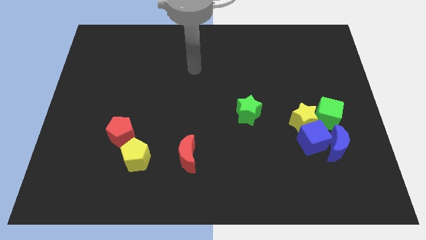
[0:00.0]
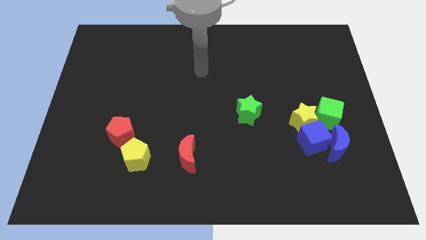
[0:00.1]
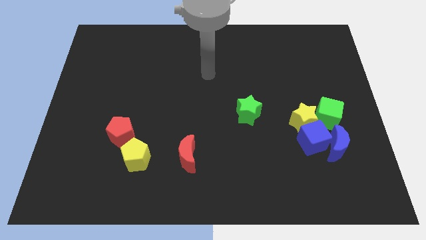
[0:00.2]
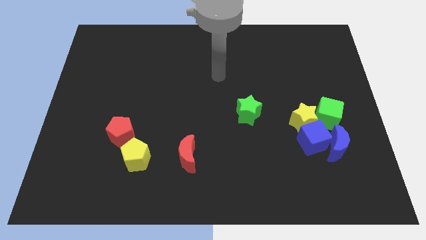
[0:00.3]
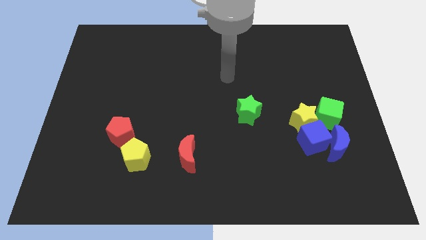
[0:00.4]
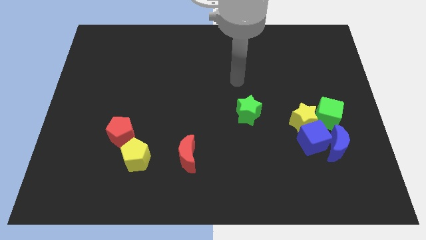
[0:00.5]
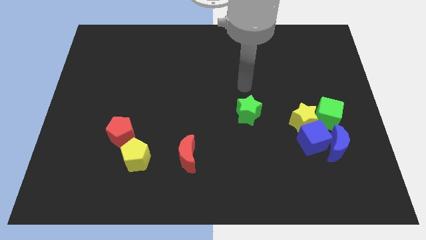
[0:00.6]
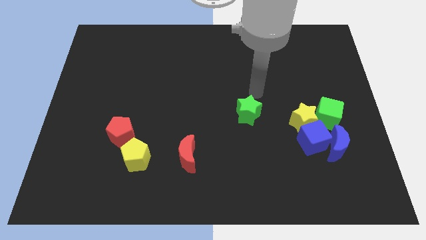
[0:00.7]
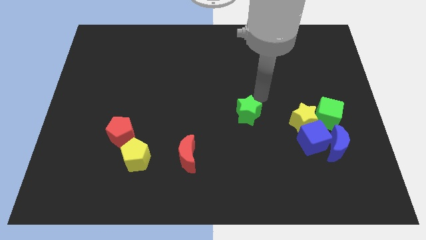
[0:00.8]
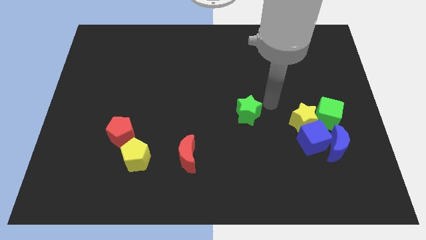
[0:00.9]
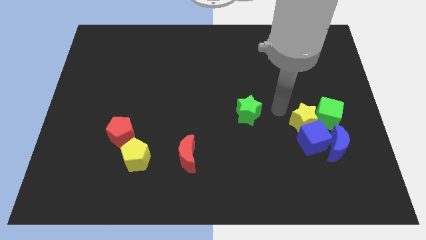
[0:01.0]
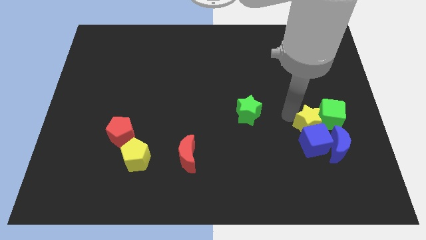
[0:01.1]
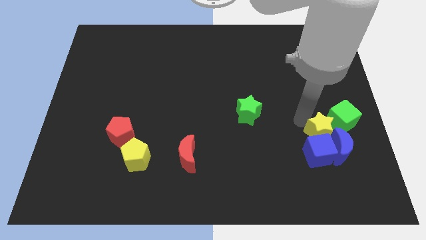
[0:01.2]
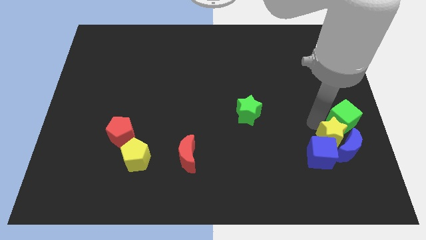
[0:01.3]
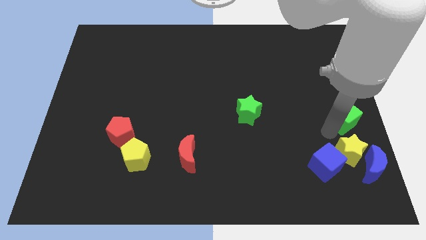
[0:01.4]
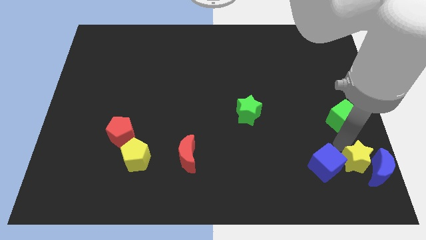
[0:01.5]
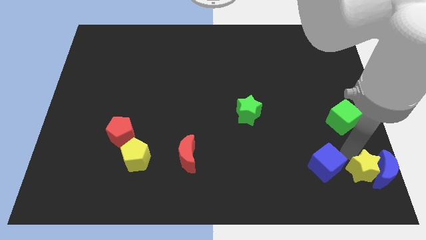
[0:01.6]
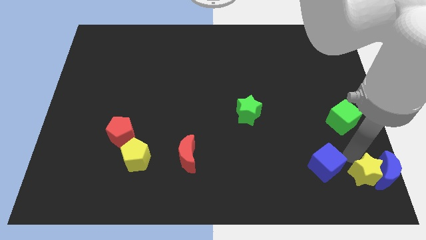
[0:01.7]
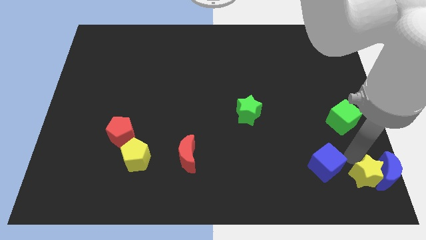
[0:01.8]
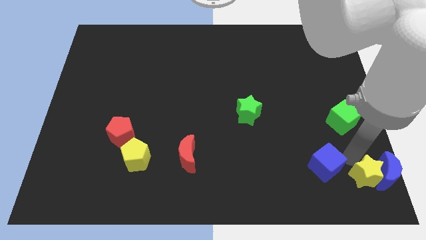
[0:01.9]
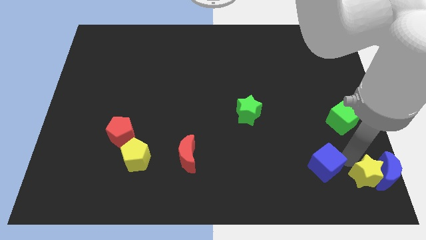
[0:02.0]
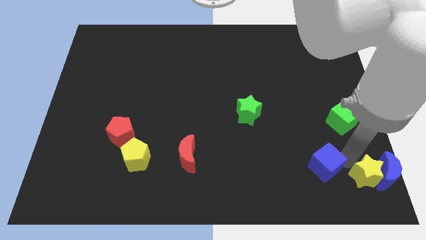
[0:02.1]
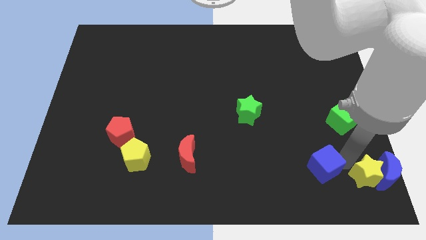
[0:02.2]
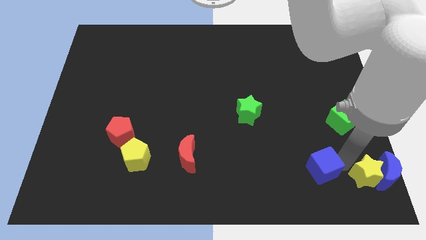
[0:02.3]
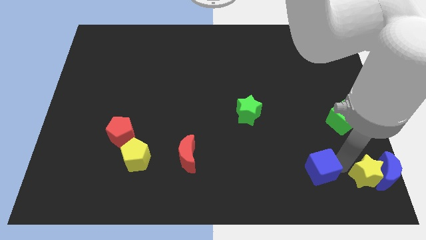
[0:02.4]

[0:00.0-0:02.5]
move the blue cube away from the clump

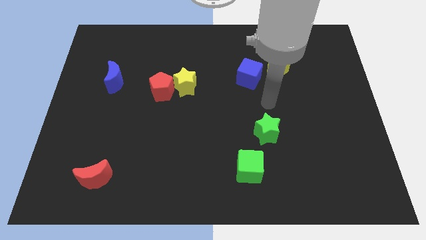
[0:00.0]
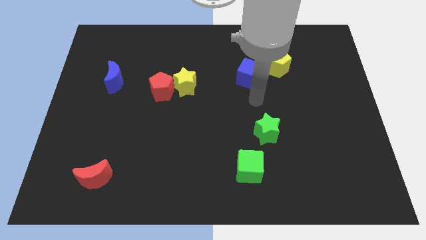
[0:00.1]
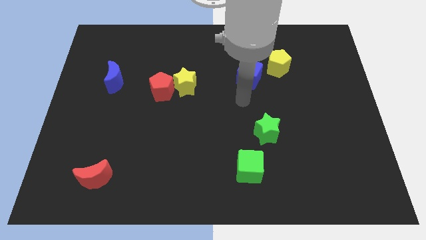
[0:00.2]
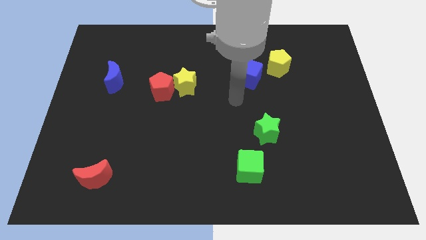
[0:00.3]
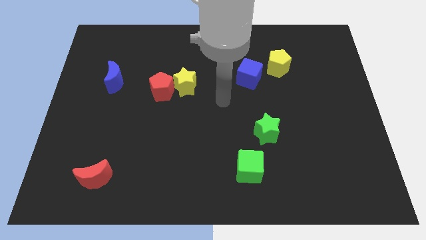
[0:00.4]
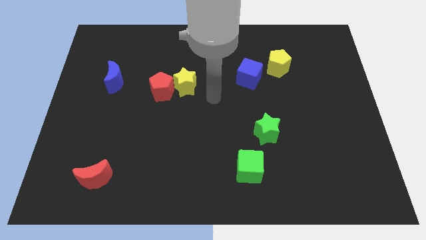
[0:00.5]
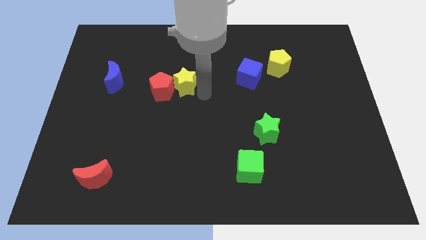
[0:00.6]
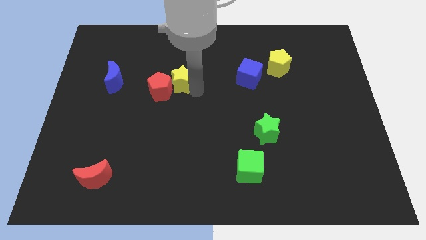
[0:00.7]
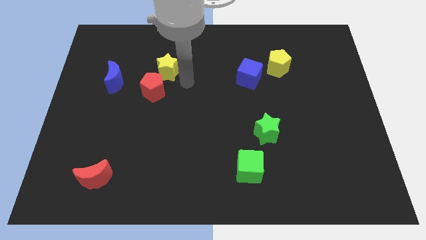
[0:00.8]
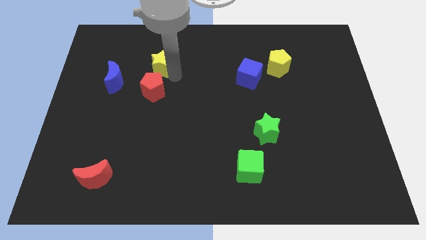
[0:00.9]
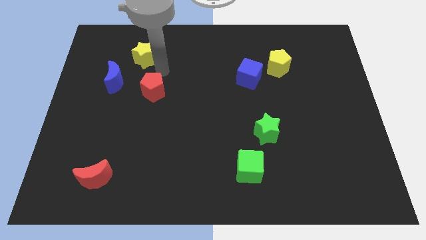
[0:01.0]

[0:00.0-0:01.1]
separate the red pentagon from the yellow star

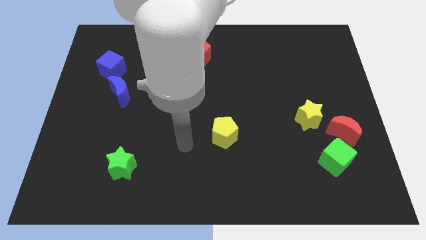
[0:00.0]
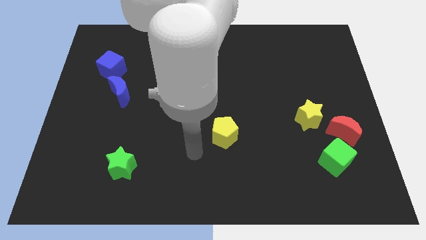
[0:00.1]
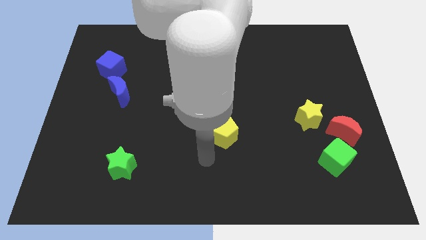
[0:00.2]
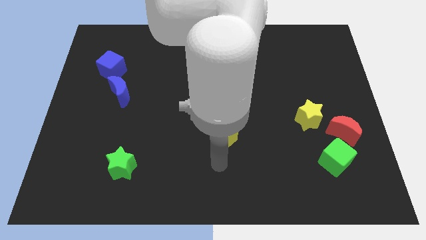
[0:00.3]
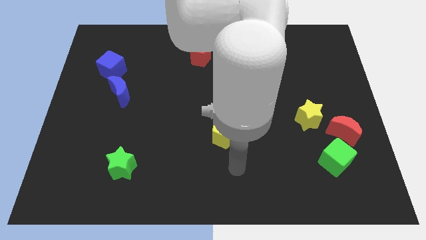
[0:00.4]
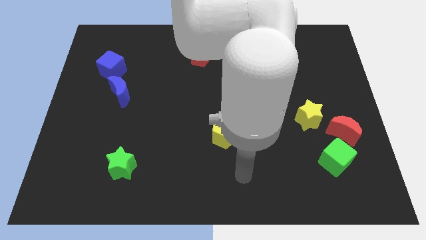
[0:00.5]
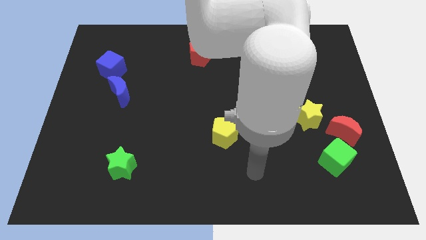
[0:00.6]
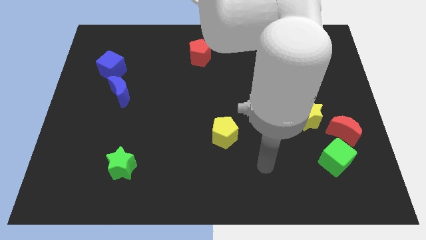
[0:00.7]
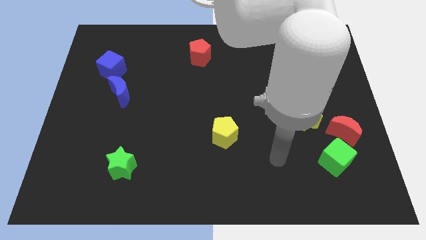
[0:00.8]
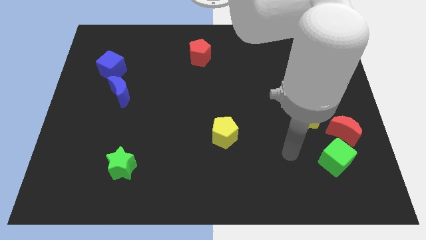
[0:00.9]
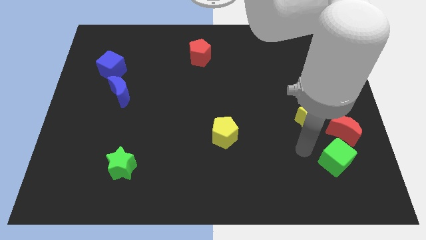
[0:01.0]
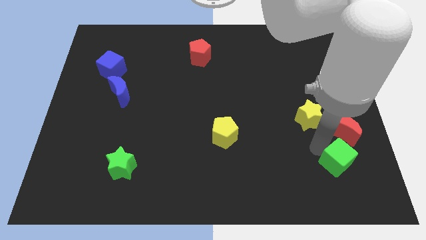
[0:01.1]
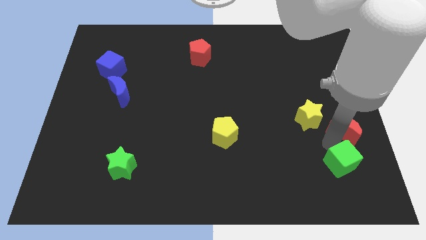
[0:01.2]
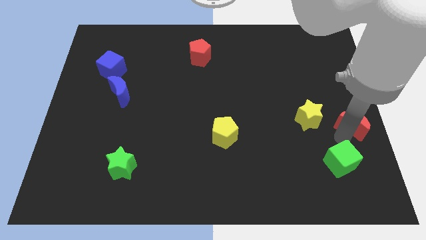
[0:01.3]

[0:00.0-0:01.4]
separate the green cube from the red moon

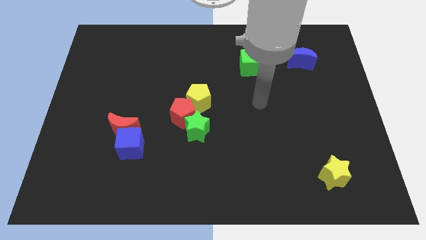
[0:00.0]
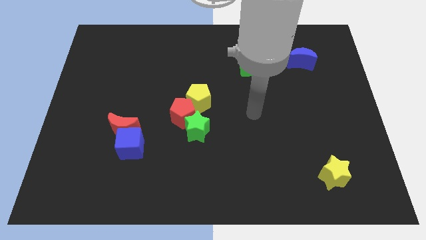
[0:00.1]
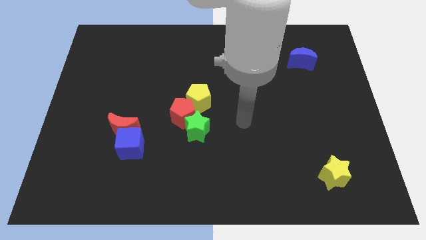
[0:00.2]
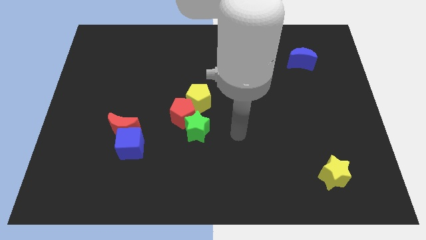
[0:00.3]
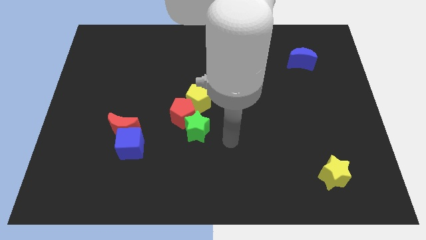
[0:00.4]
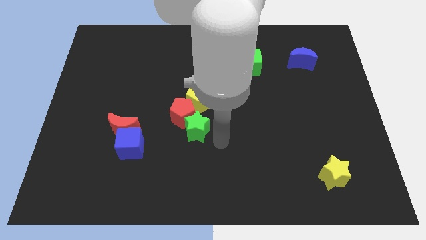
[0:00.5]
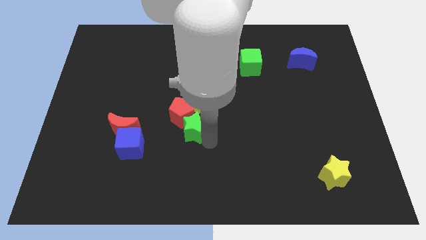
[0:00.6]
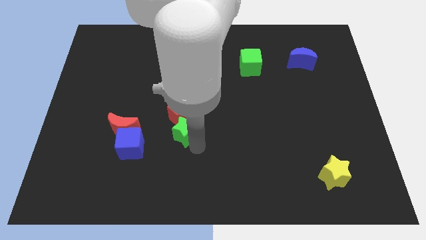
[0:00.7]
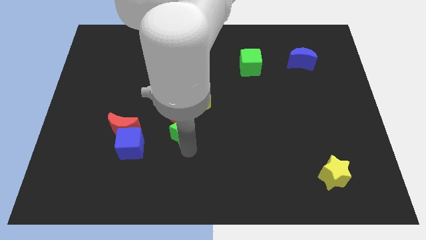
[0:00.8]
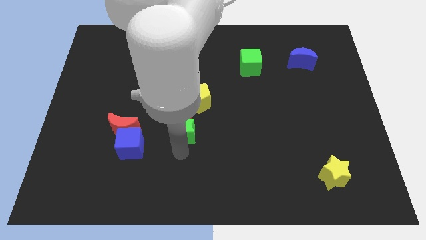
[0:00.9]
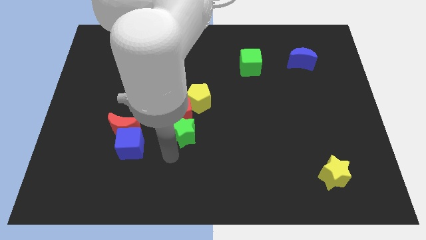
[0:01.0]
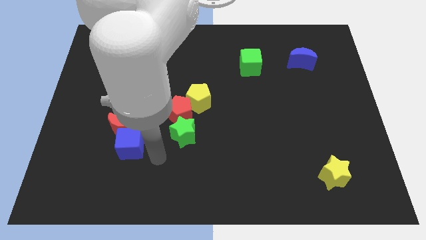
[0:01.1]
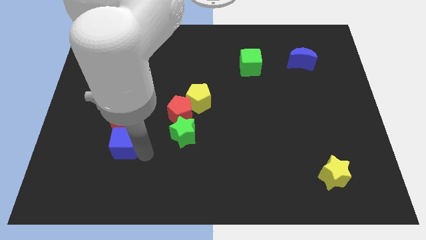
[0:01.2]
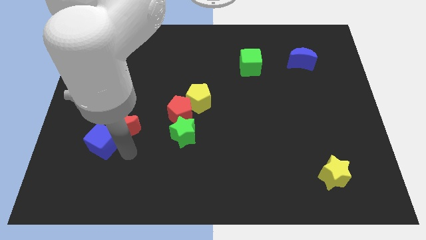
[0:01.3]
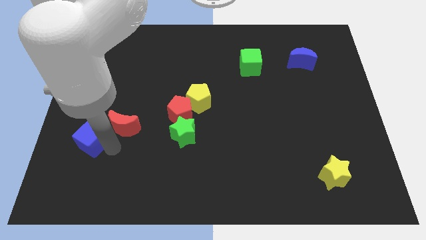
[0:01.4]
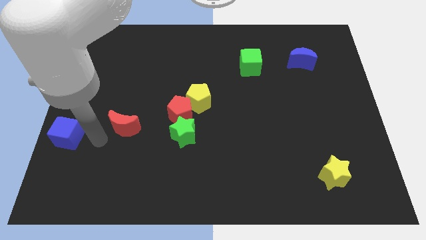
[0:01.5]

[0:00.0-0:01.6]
pull the red moon apart from the blue cube

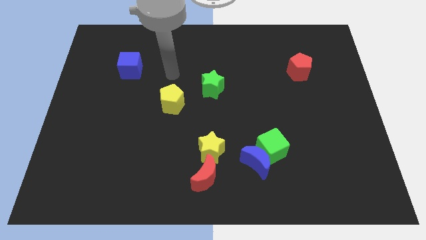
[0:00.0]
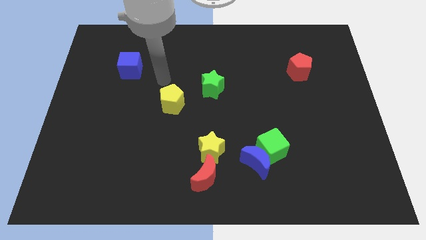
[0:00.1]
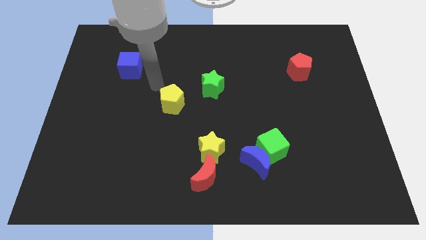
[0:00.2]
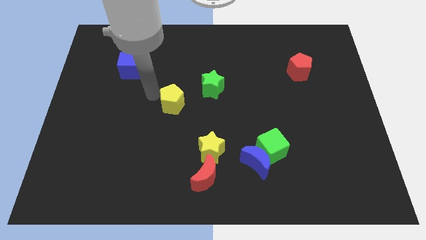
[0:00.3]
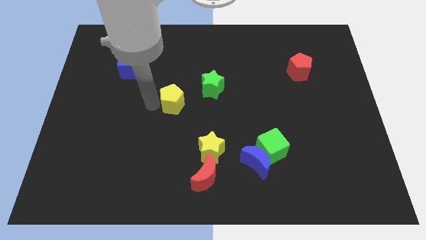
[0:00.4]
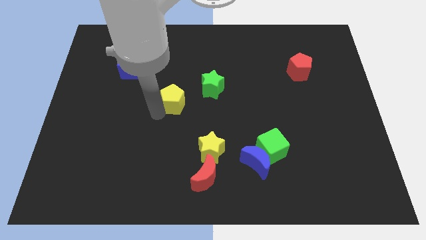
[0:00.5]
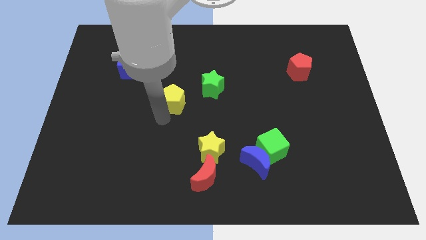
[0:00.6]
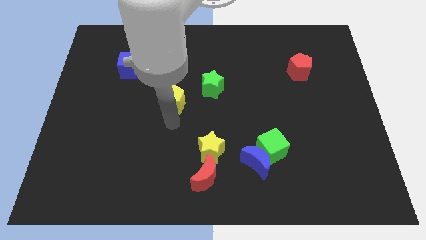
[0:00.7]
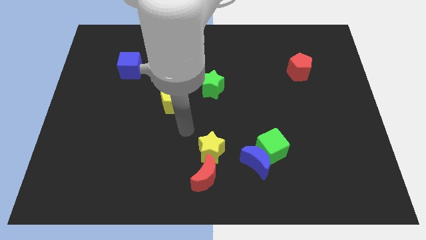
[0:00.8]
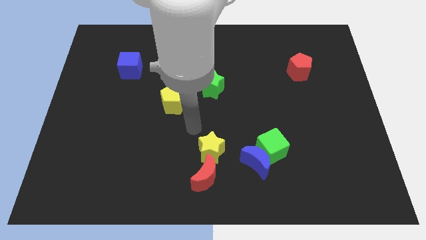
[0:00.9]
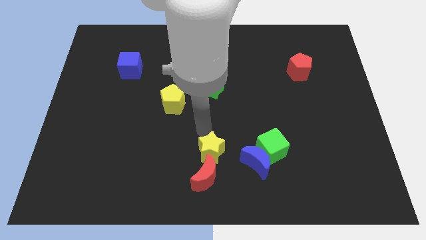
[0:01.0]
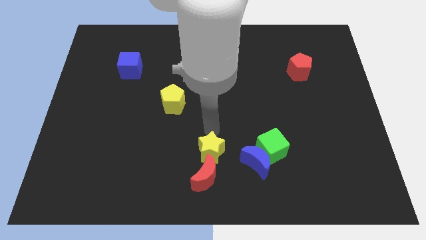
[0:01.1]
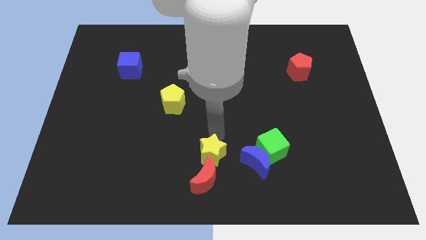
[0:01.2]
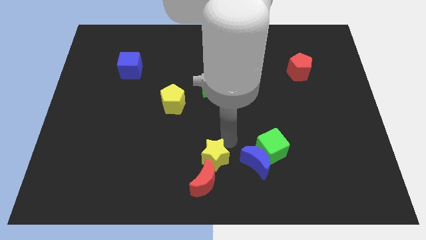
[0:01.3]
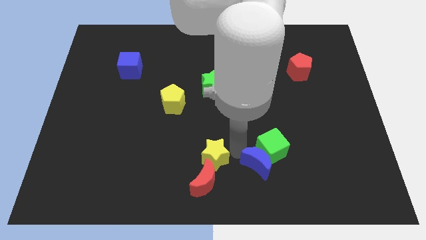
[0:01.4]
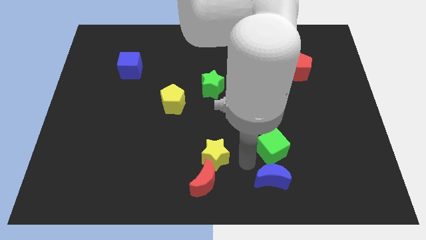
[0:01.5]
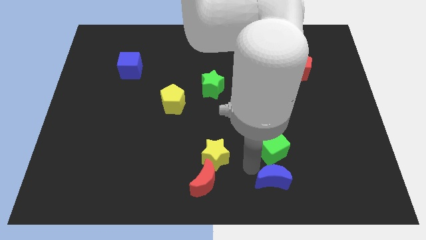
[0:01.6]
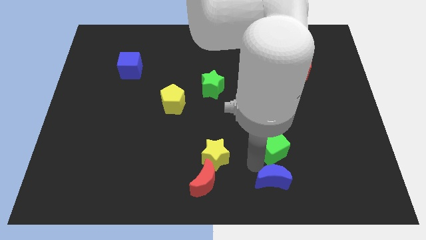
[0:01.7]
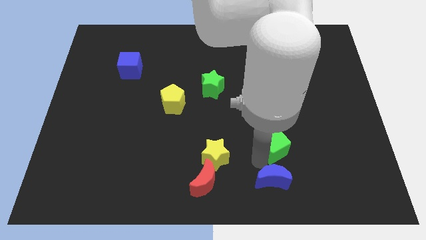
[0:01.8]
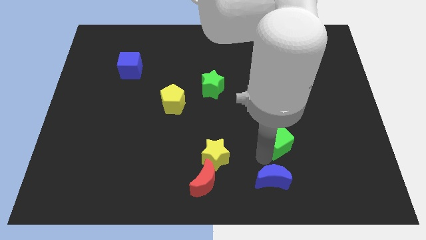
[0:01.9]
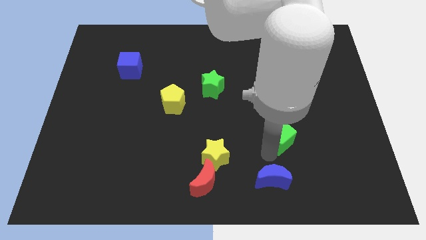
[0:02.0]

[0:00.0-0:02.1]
separate the green cube from the blue moon

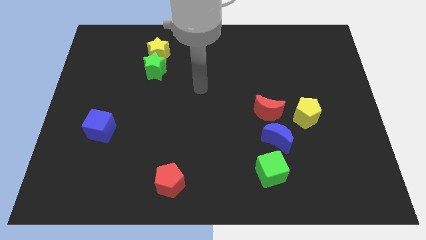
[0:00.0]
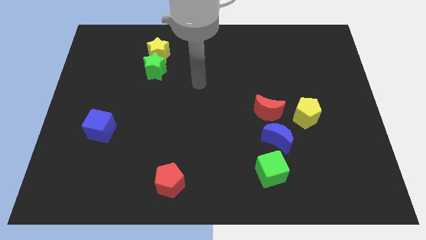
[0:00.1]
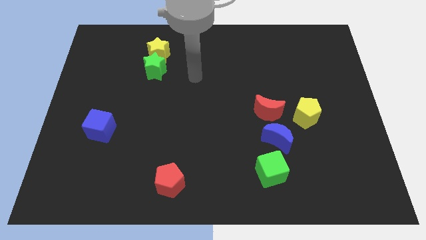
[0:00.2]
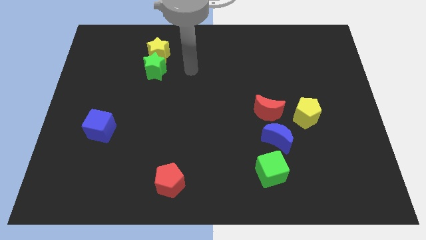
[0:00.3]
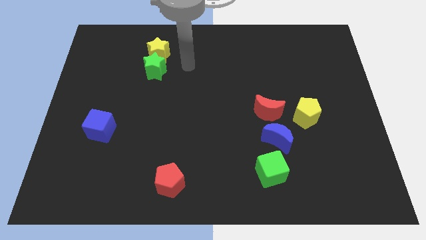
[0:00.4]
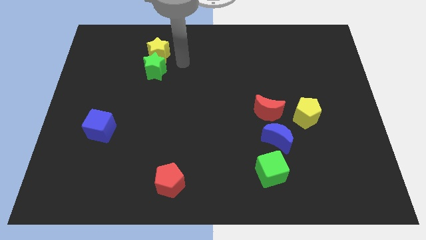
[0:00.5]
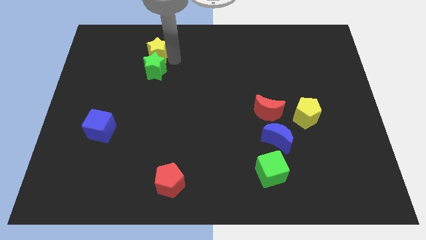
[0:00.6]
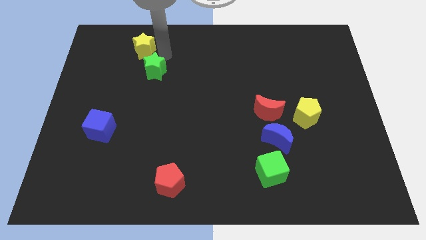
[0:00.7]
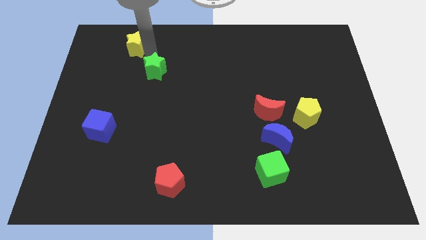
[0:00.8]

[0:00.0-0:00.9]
separate the green star from the yellow star
